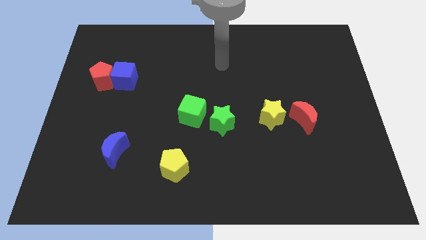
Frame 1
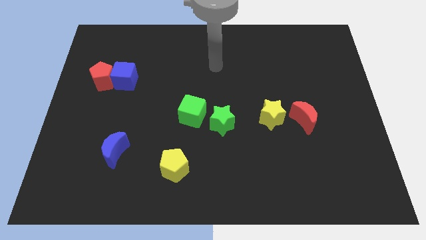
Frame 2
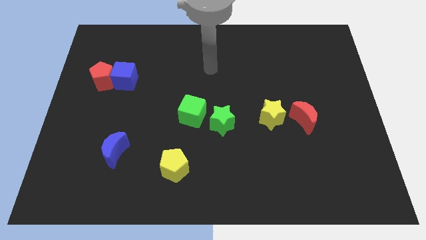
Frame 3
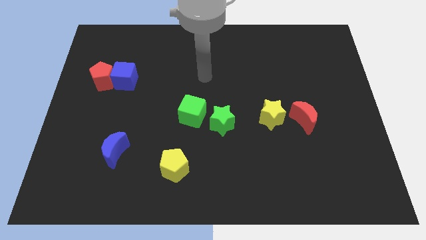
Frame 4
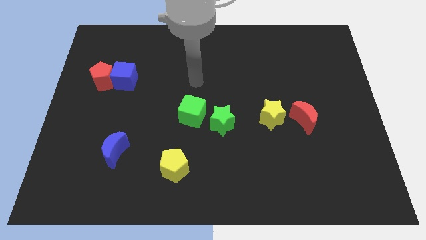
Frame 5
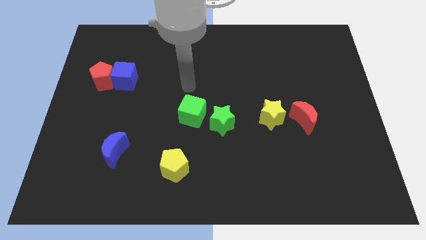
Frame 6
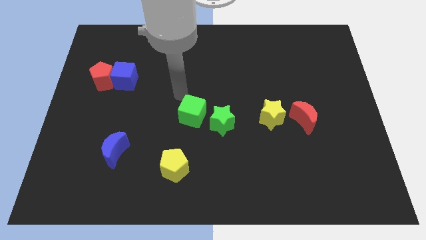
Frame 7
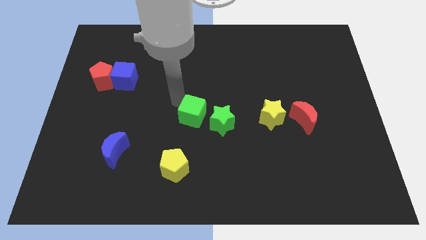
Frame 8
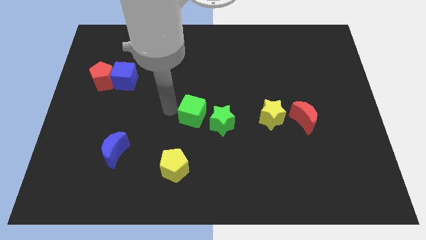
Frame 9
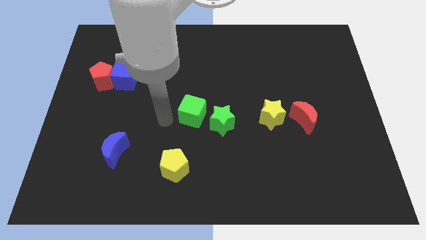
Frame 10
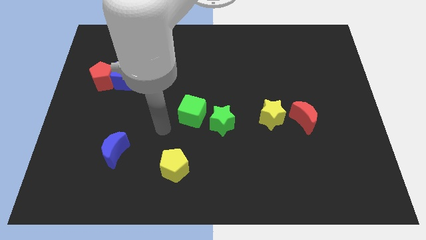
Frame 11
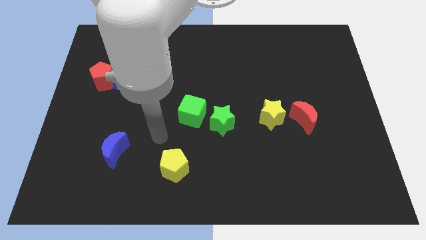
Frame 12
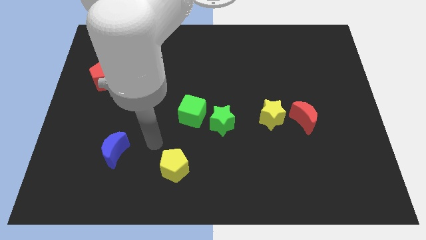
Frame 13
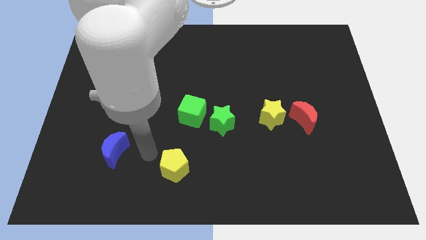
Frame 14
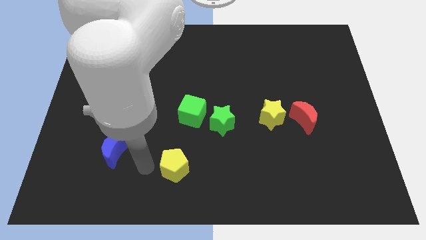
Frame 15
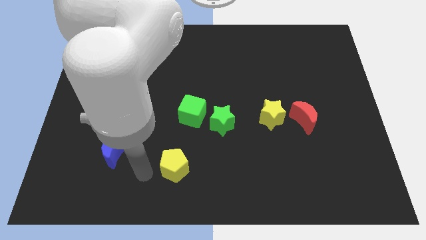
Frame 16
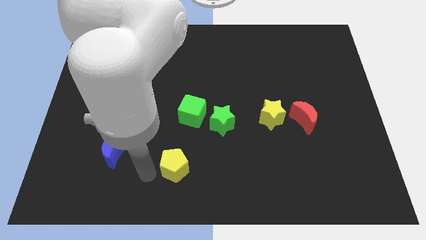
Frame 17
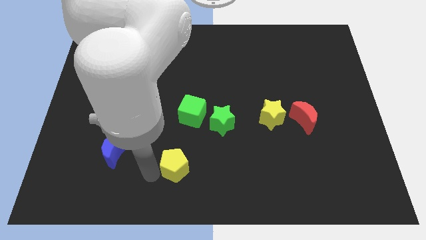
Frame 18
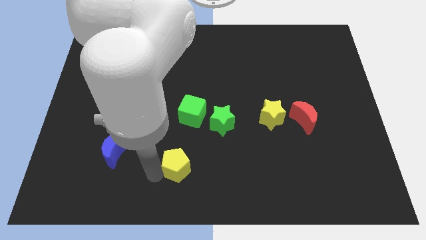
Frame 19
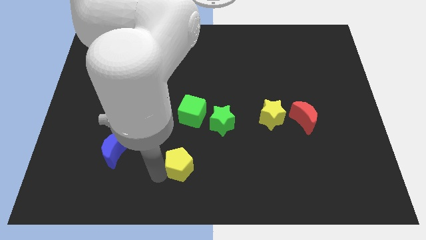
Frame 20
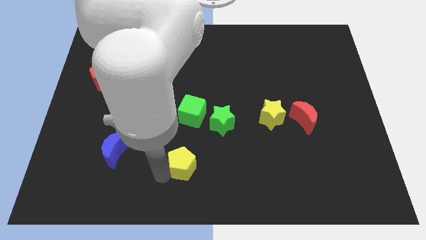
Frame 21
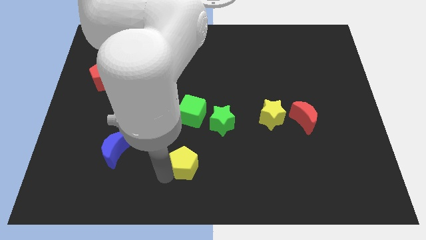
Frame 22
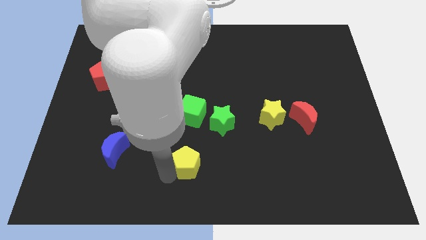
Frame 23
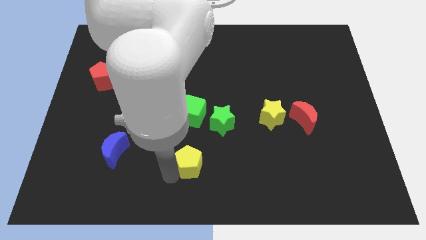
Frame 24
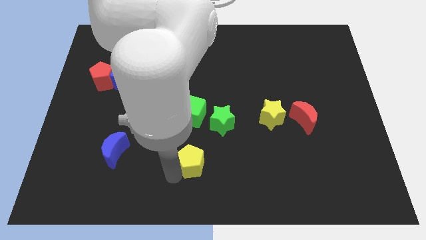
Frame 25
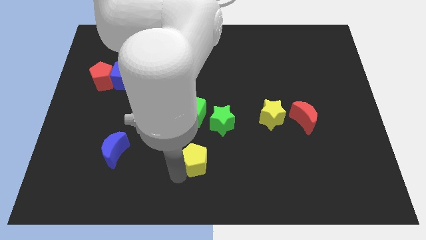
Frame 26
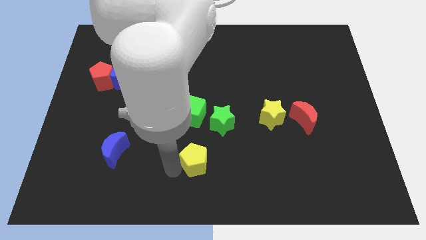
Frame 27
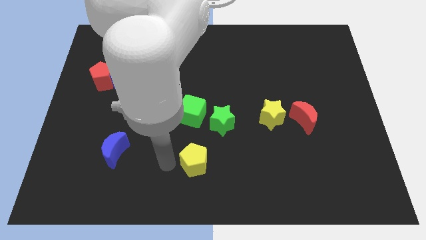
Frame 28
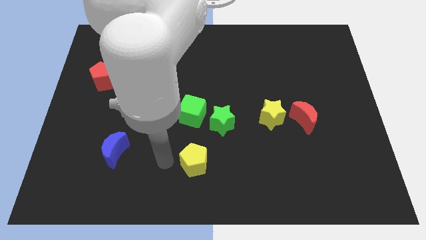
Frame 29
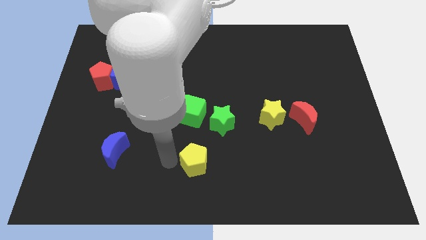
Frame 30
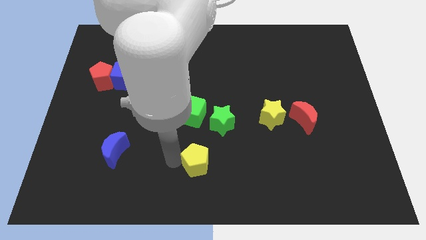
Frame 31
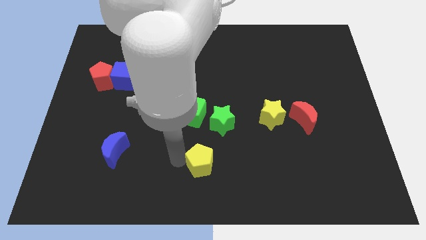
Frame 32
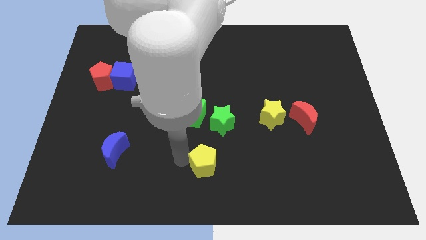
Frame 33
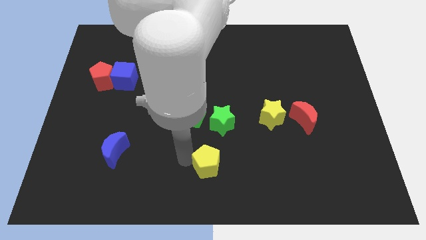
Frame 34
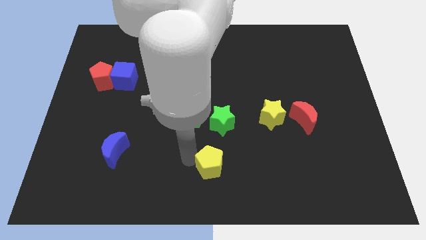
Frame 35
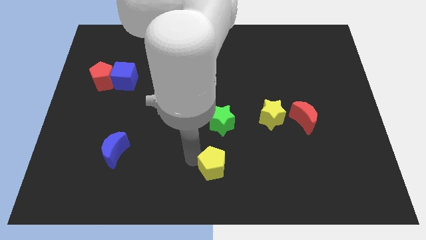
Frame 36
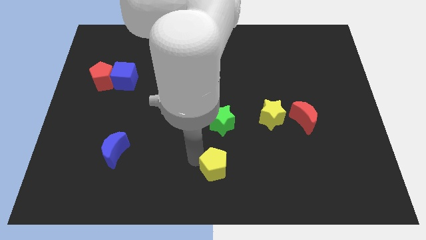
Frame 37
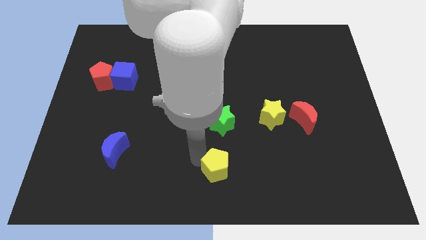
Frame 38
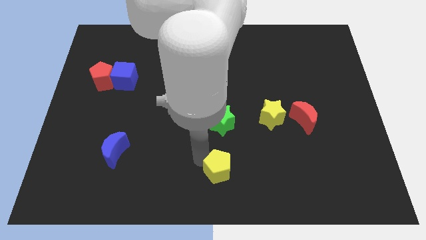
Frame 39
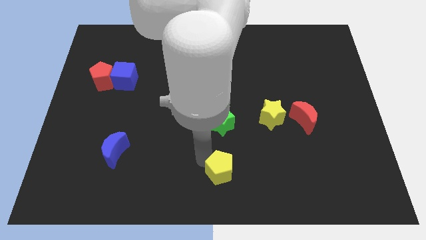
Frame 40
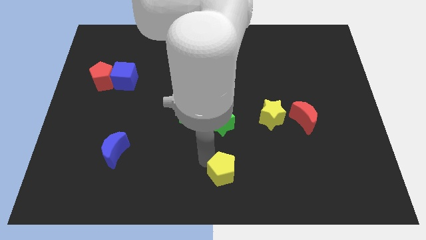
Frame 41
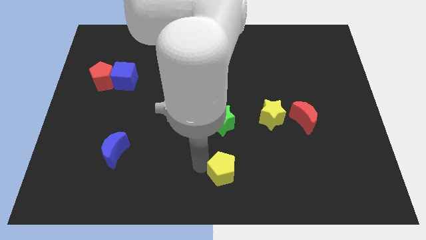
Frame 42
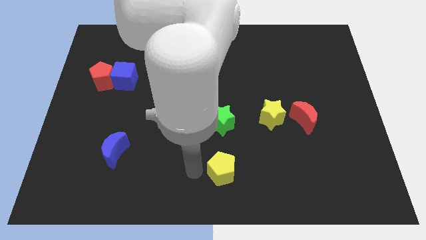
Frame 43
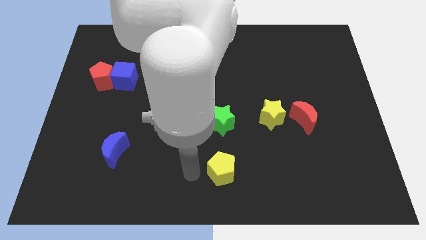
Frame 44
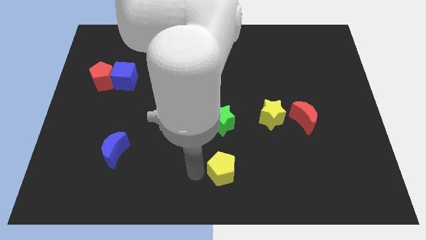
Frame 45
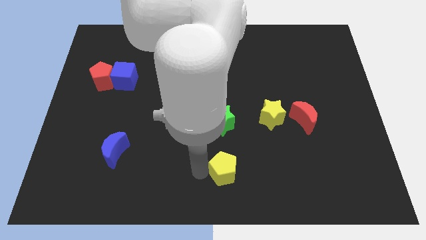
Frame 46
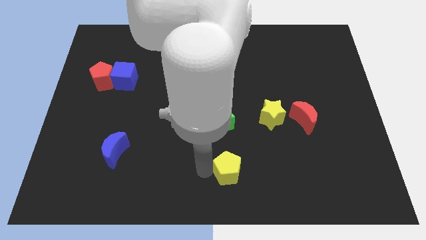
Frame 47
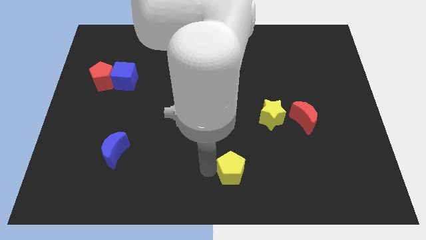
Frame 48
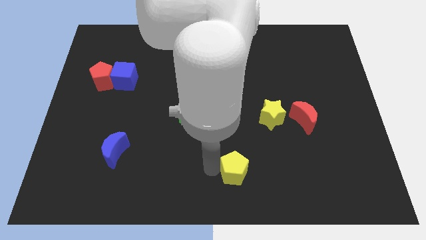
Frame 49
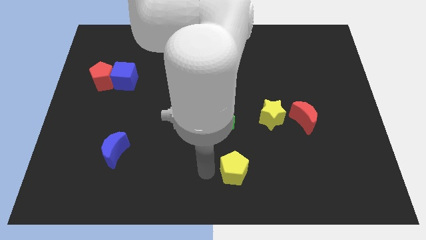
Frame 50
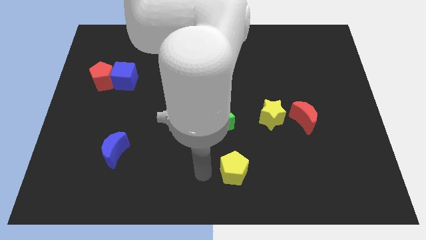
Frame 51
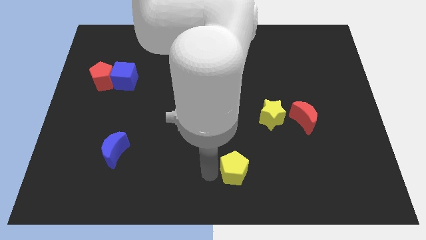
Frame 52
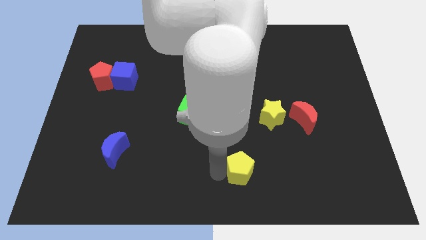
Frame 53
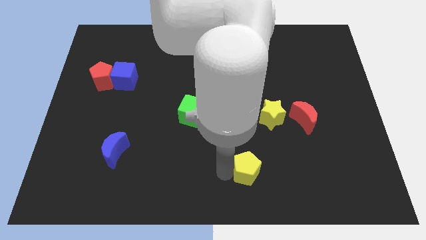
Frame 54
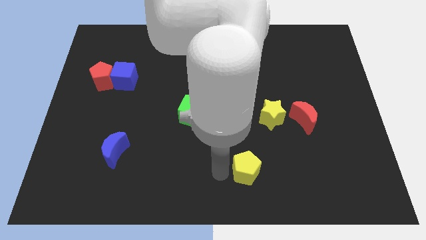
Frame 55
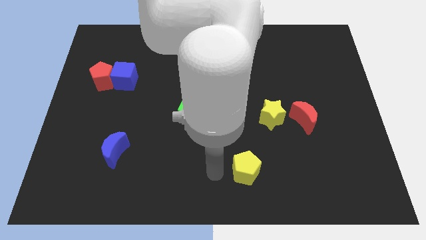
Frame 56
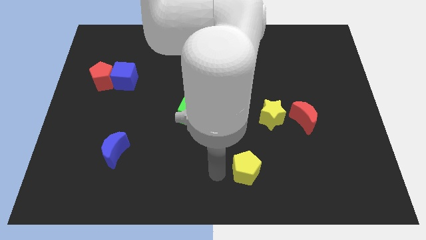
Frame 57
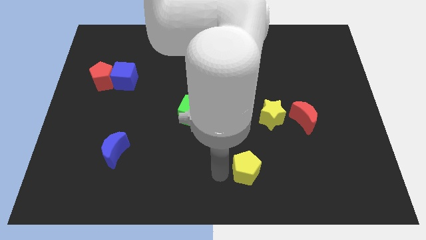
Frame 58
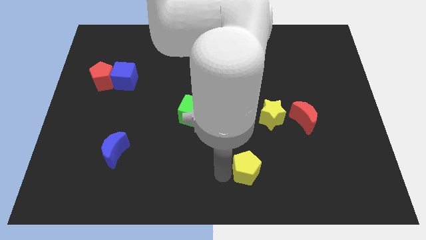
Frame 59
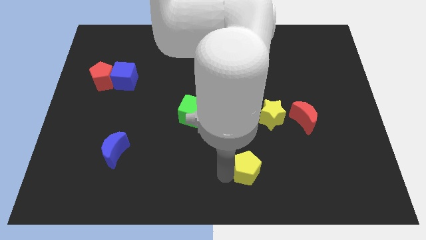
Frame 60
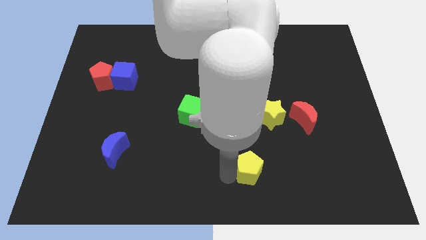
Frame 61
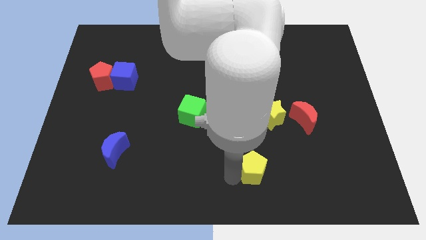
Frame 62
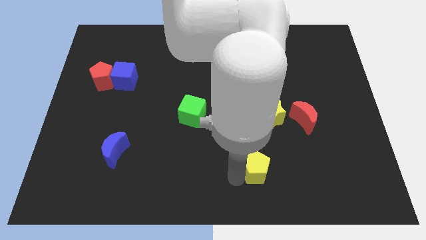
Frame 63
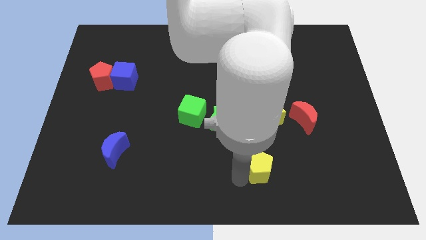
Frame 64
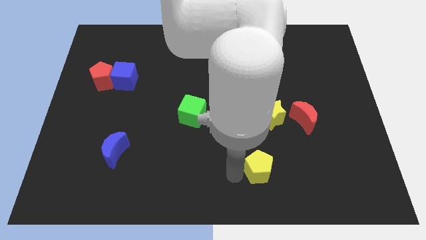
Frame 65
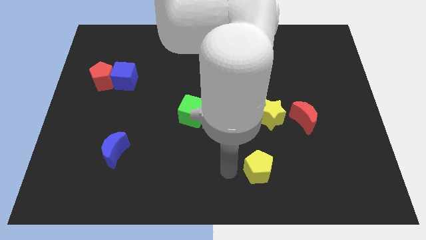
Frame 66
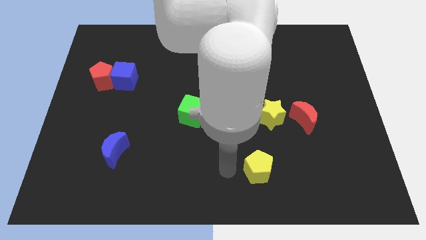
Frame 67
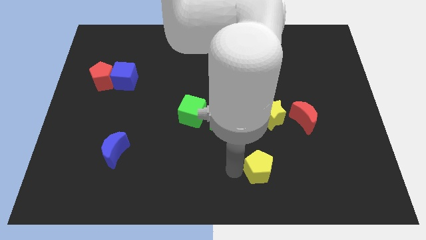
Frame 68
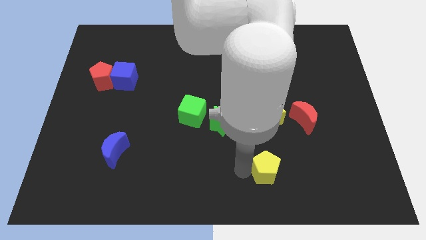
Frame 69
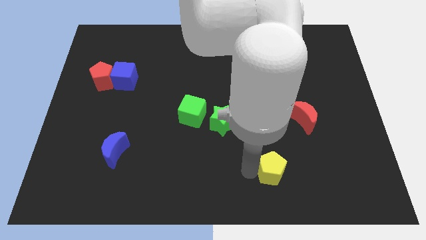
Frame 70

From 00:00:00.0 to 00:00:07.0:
push the yellow pentagon right

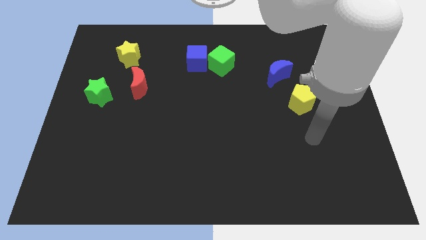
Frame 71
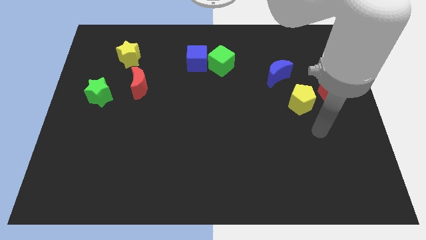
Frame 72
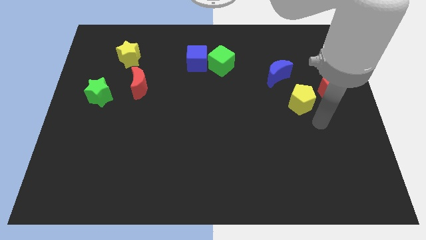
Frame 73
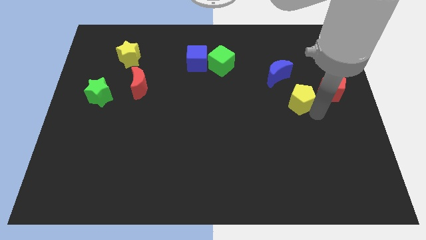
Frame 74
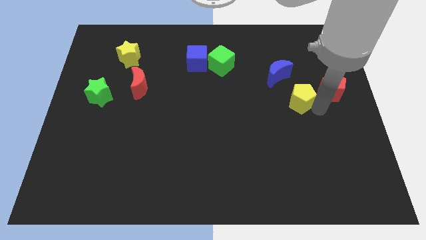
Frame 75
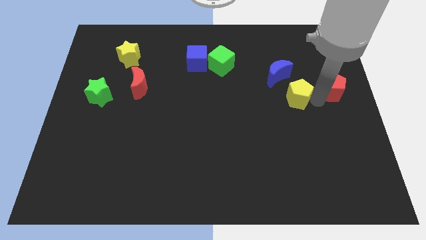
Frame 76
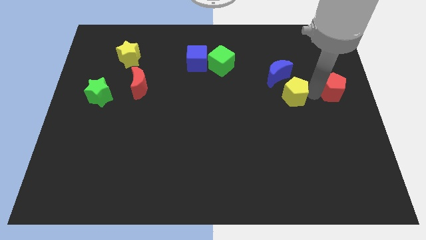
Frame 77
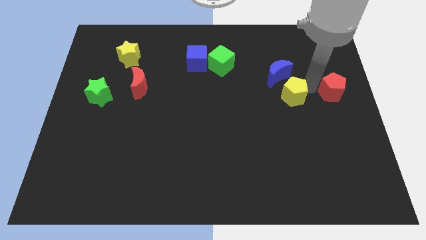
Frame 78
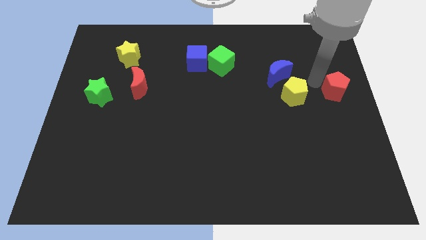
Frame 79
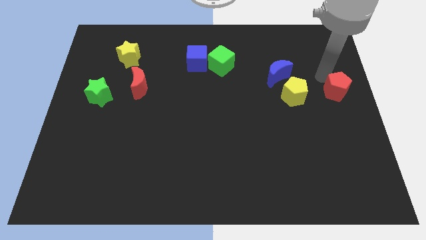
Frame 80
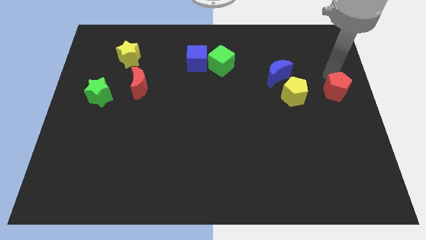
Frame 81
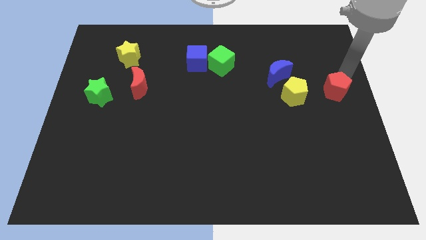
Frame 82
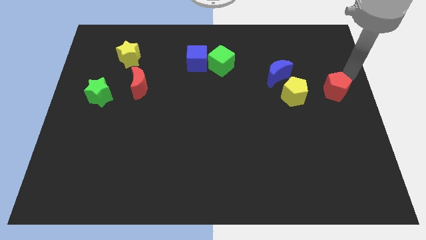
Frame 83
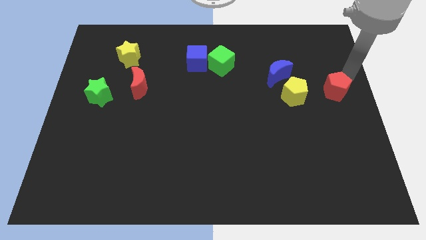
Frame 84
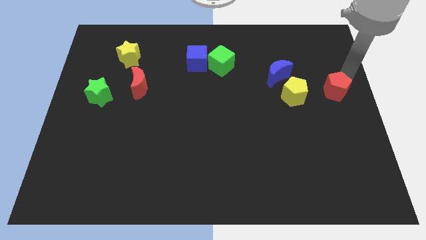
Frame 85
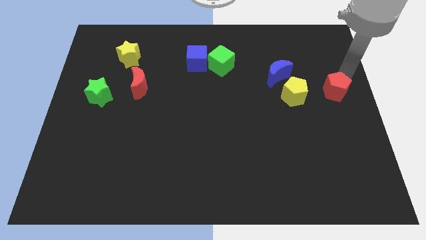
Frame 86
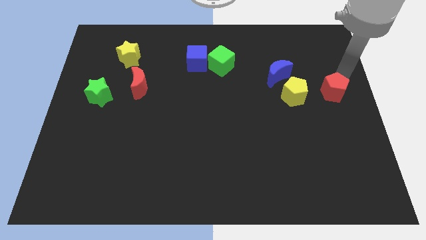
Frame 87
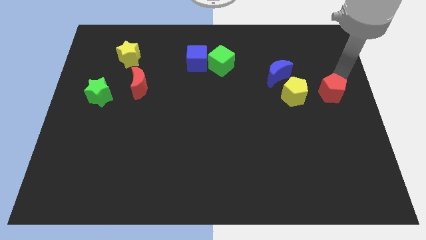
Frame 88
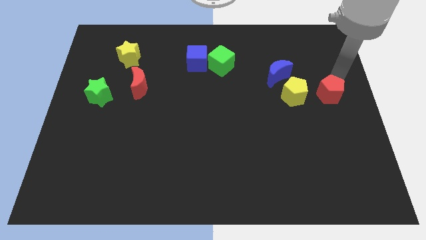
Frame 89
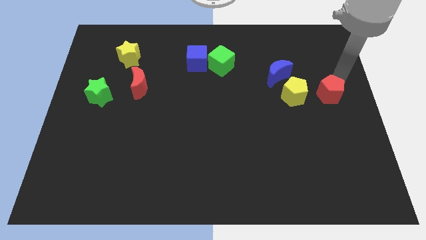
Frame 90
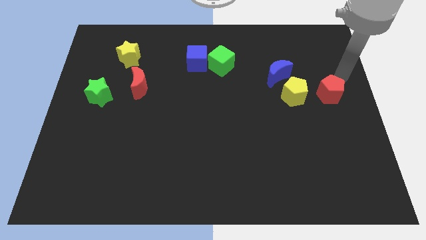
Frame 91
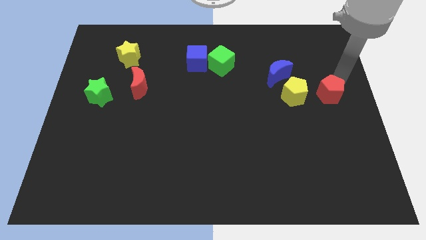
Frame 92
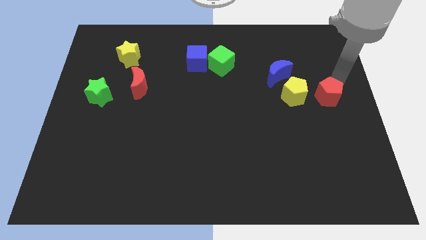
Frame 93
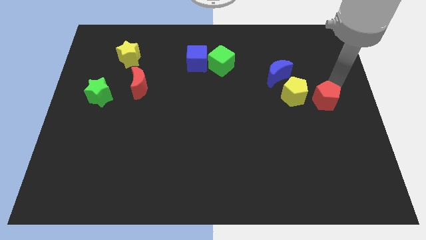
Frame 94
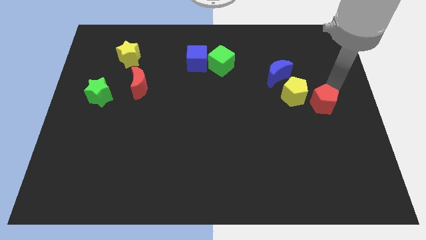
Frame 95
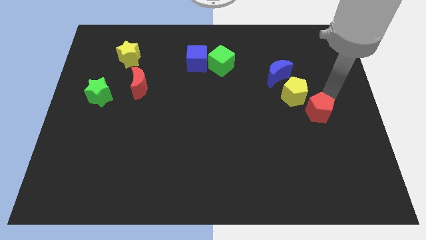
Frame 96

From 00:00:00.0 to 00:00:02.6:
slightly move the red pentagon diagonally downwards and to the left
